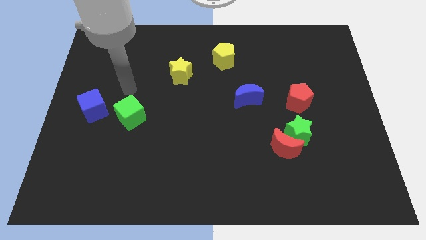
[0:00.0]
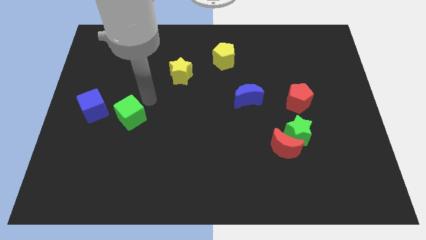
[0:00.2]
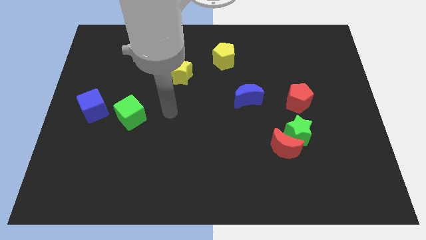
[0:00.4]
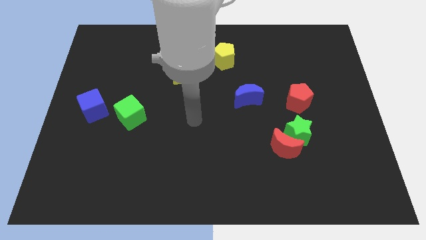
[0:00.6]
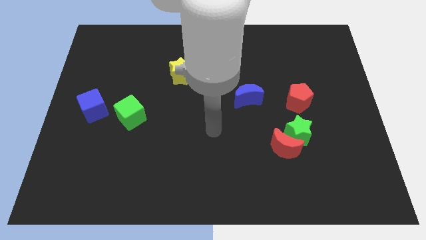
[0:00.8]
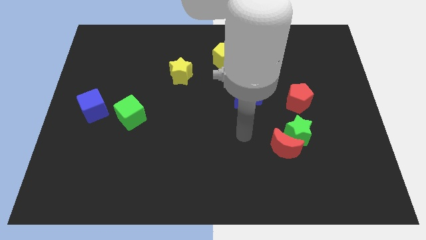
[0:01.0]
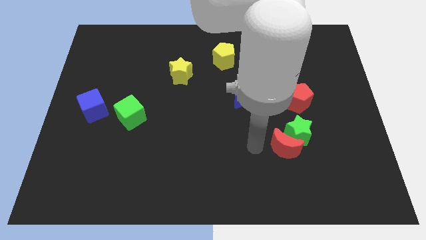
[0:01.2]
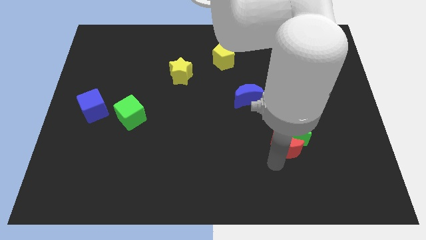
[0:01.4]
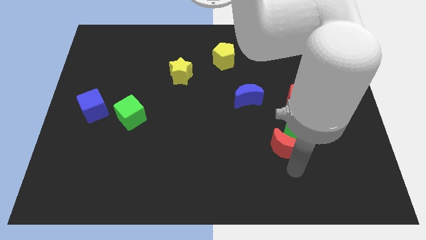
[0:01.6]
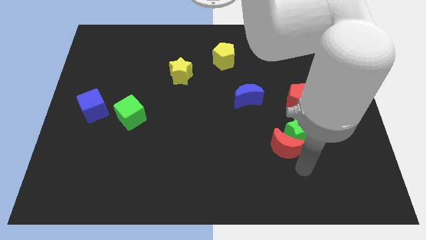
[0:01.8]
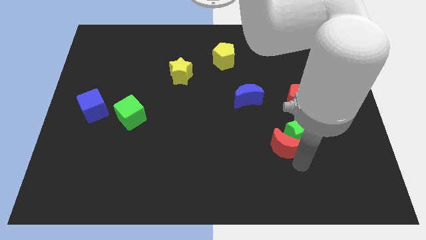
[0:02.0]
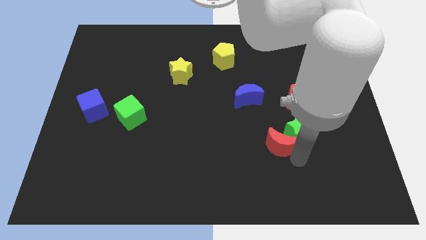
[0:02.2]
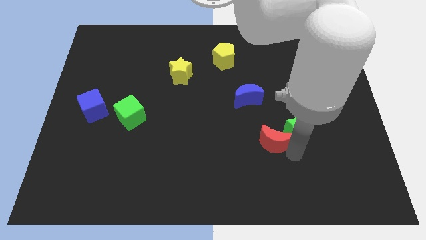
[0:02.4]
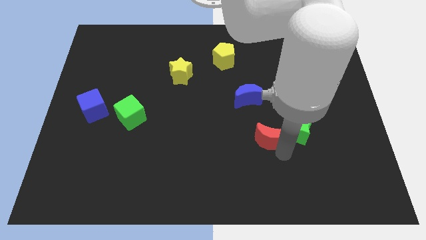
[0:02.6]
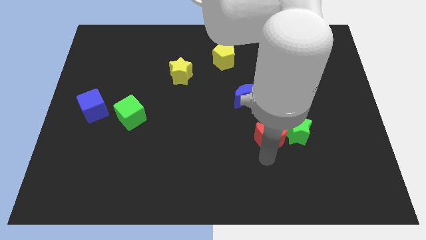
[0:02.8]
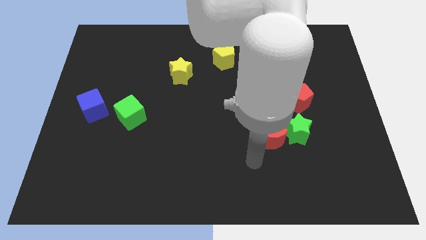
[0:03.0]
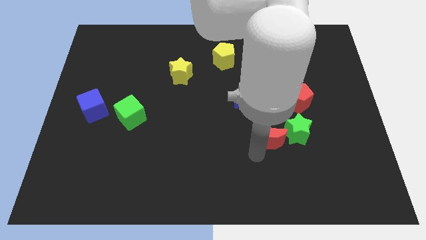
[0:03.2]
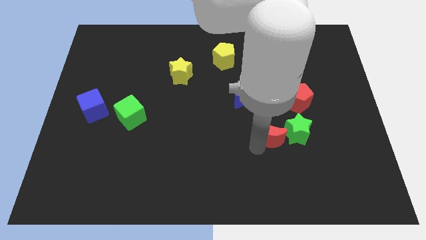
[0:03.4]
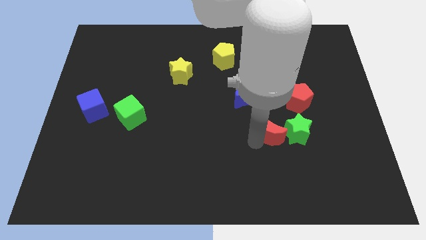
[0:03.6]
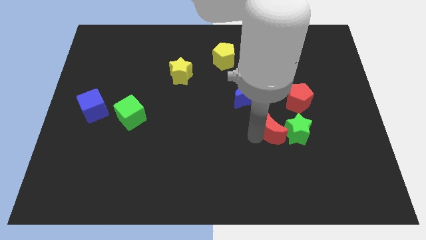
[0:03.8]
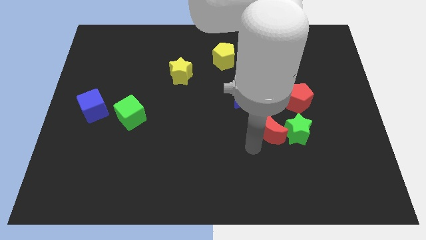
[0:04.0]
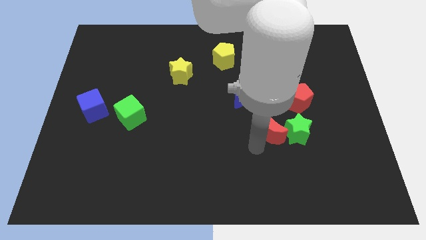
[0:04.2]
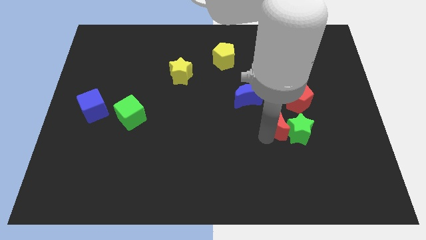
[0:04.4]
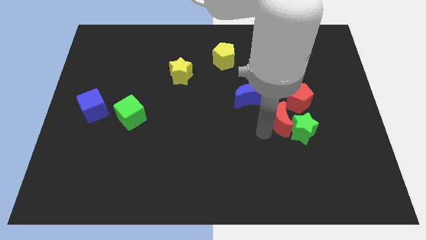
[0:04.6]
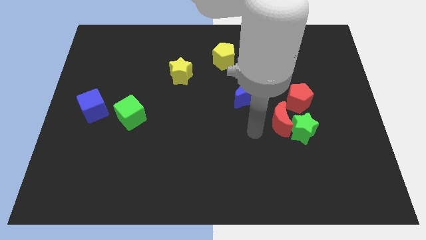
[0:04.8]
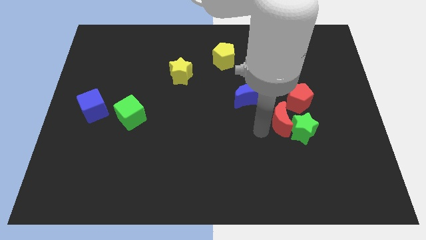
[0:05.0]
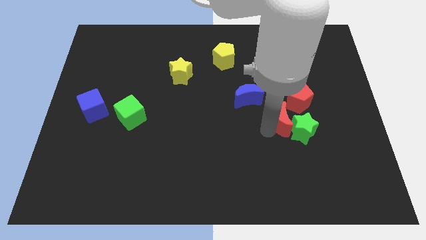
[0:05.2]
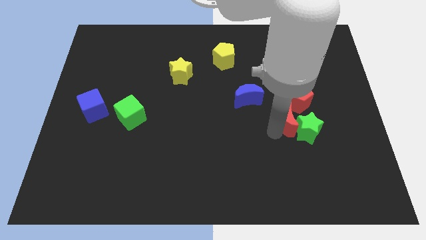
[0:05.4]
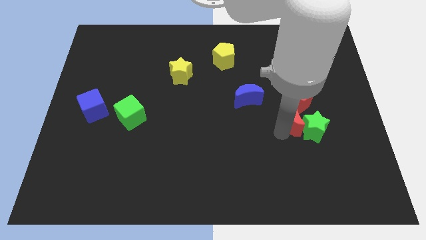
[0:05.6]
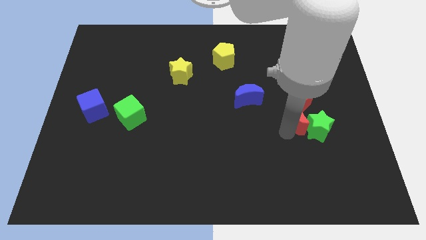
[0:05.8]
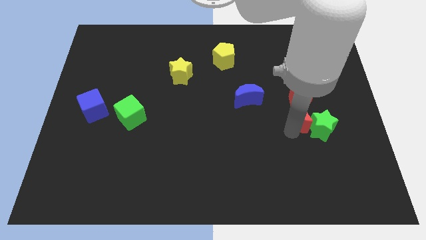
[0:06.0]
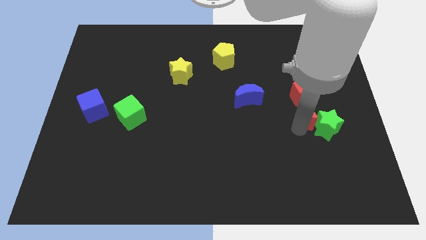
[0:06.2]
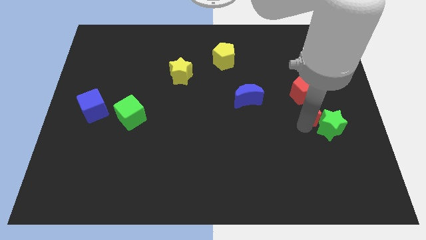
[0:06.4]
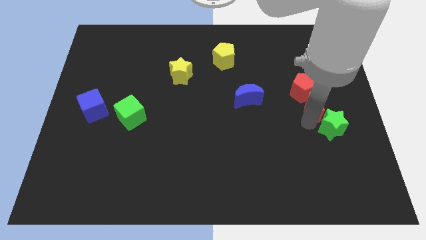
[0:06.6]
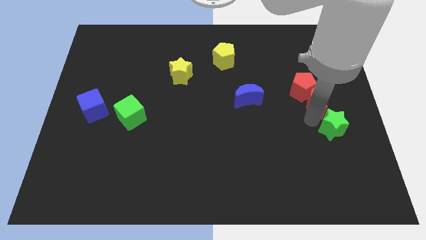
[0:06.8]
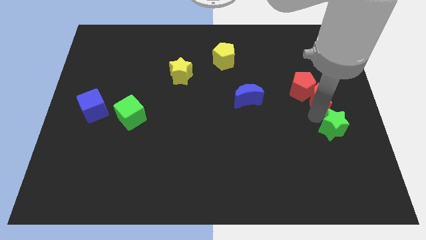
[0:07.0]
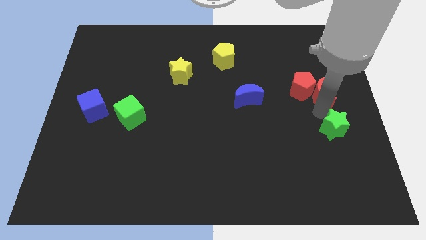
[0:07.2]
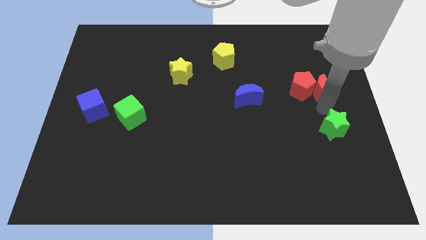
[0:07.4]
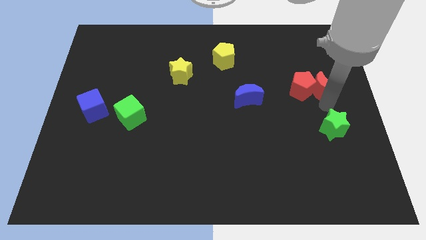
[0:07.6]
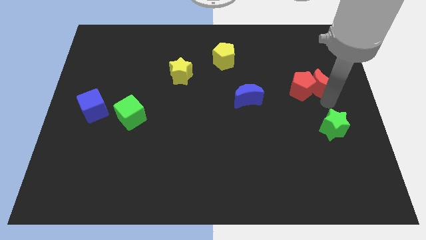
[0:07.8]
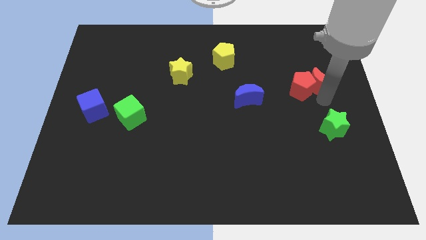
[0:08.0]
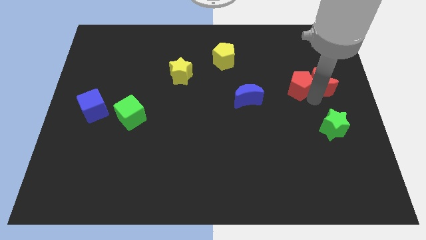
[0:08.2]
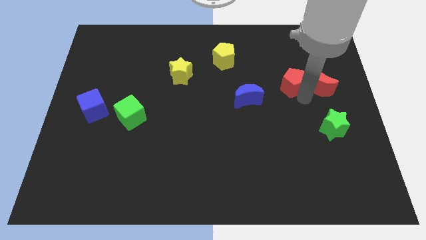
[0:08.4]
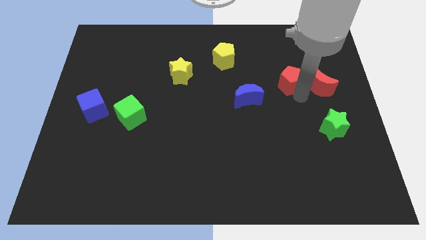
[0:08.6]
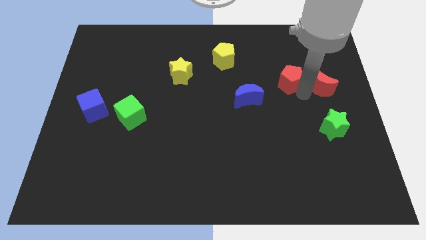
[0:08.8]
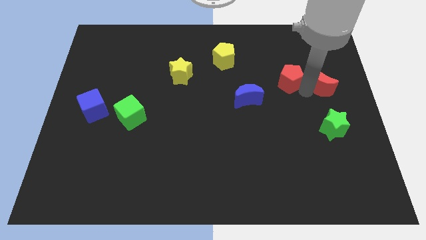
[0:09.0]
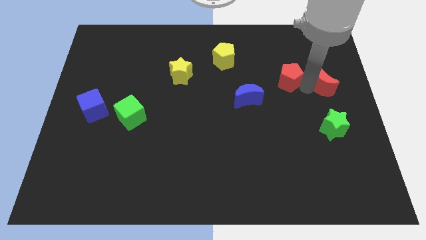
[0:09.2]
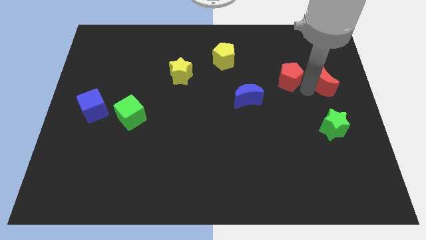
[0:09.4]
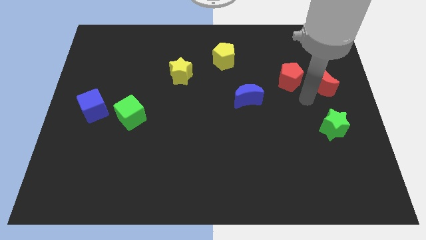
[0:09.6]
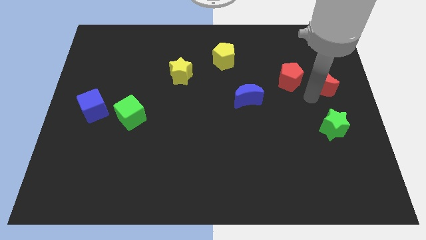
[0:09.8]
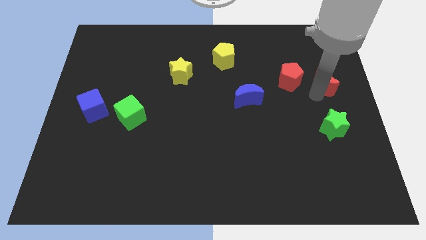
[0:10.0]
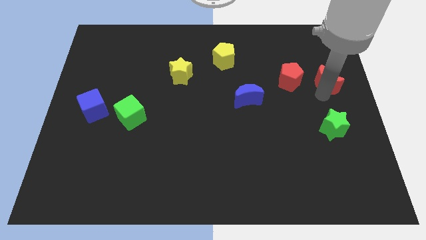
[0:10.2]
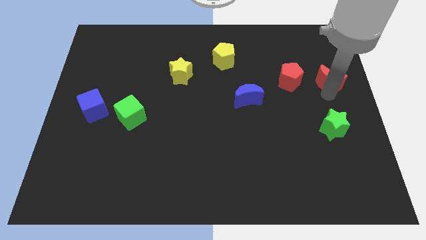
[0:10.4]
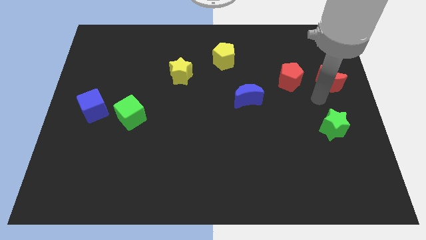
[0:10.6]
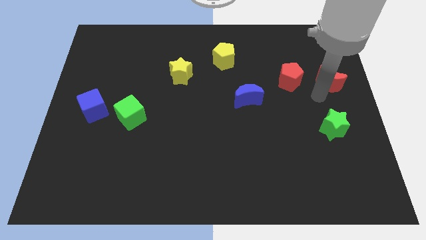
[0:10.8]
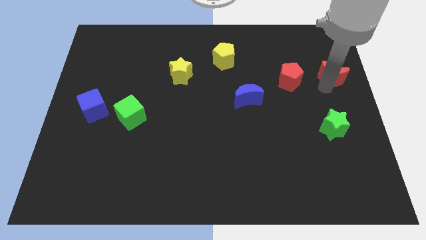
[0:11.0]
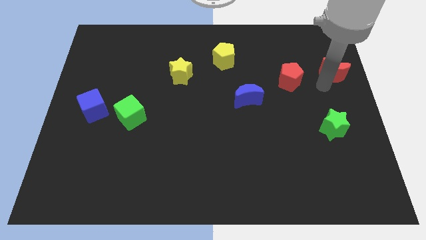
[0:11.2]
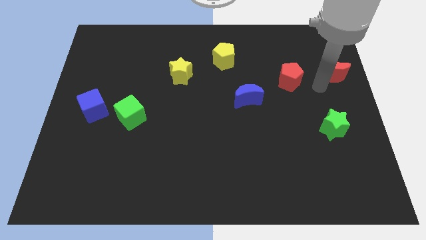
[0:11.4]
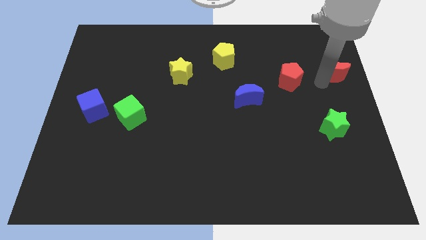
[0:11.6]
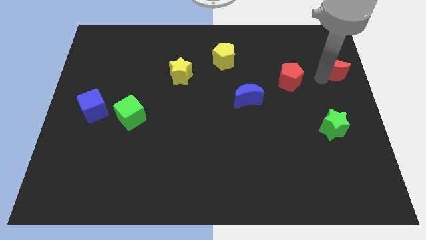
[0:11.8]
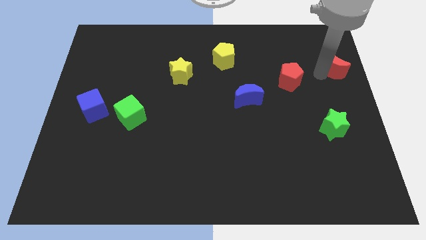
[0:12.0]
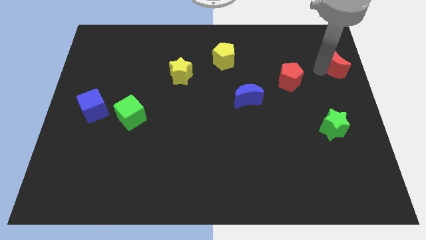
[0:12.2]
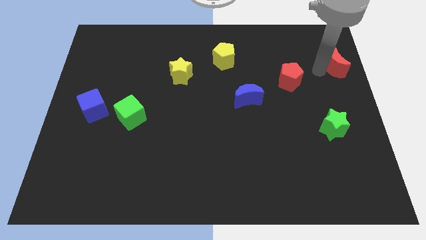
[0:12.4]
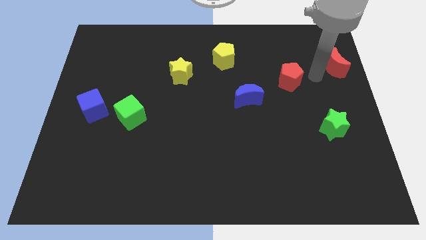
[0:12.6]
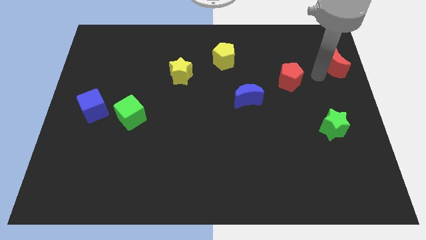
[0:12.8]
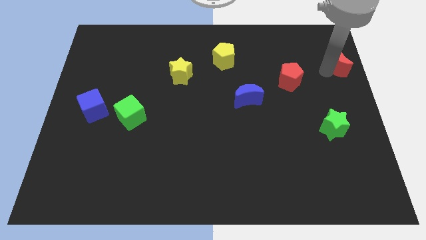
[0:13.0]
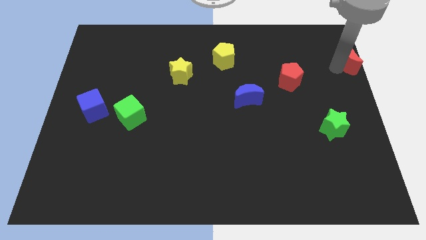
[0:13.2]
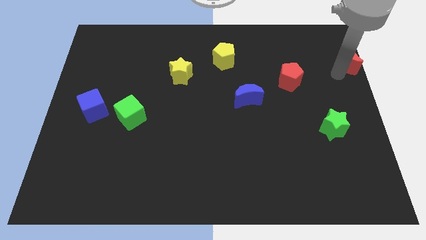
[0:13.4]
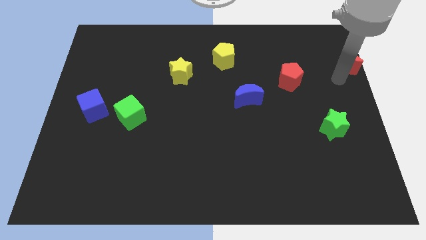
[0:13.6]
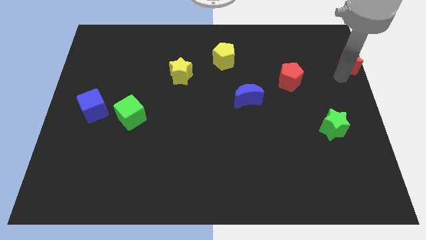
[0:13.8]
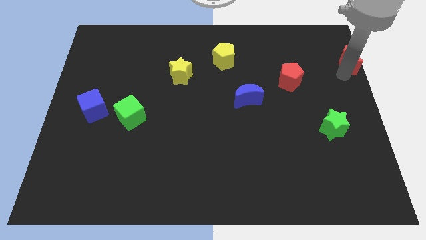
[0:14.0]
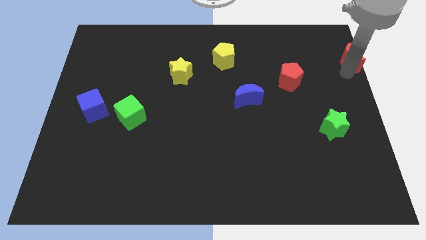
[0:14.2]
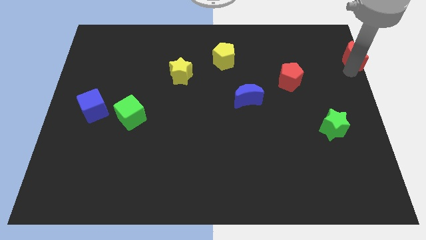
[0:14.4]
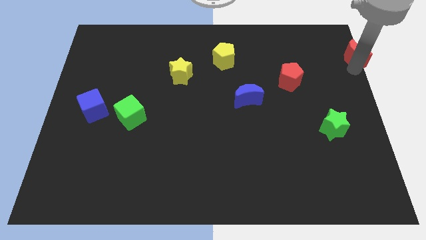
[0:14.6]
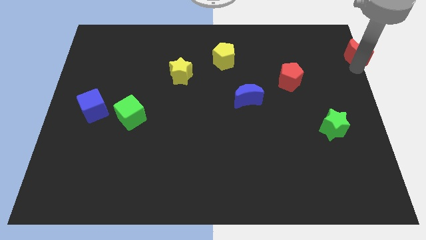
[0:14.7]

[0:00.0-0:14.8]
move the red moon to the top right of the board
